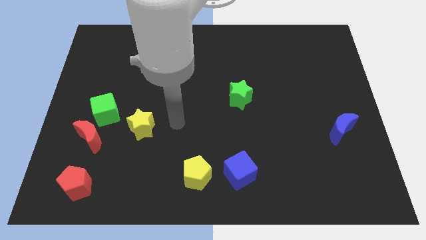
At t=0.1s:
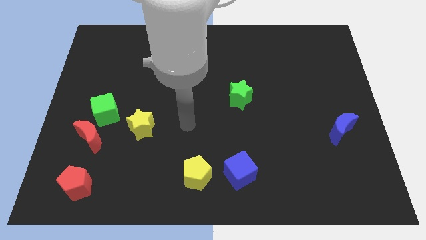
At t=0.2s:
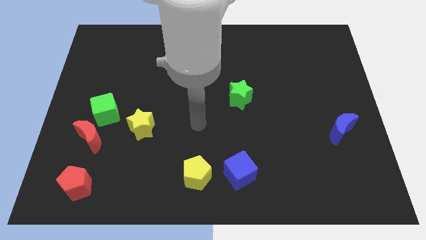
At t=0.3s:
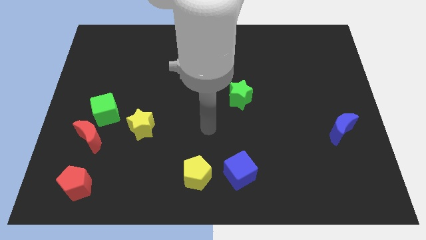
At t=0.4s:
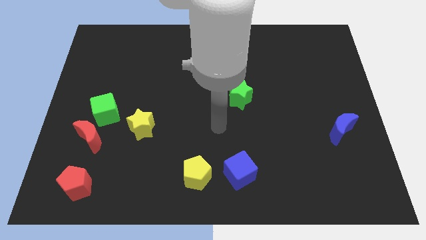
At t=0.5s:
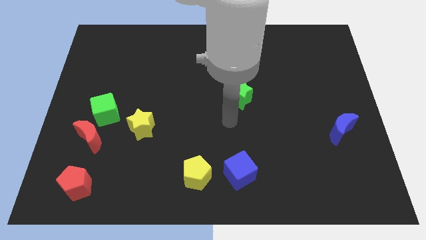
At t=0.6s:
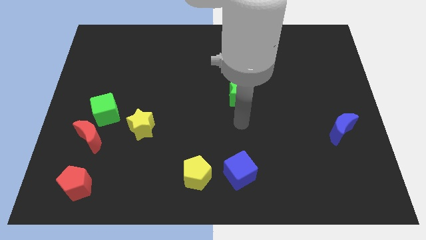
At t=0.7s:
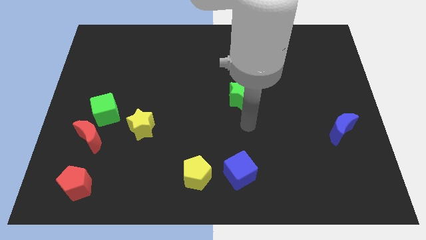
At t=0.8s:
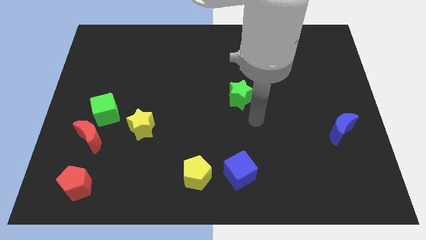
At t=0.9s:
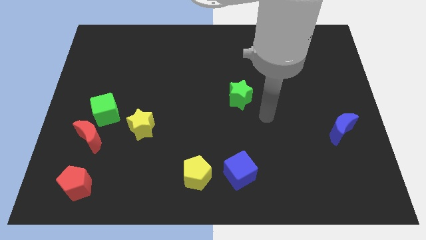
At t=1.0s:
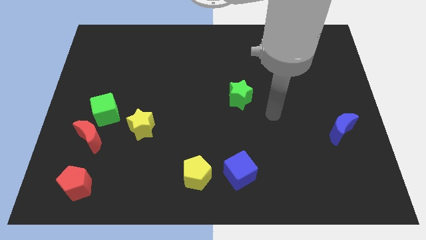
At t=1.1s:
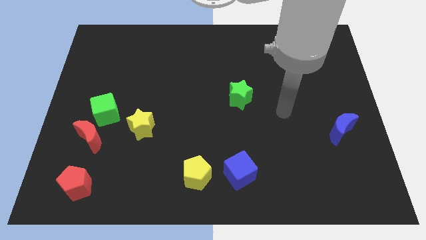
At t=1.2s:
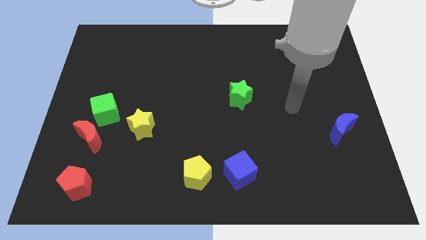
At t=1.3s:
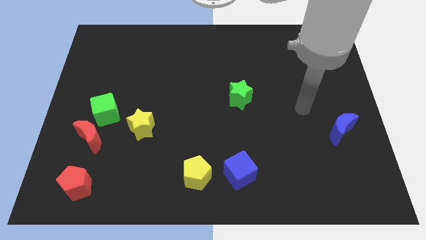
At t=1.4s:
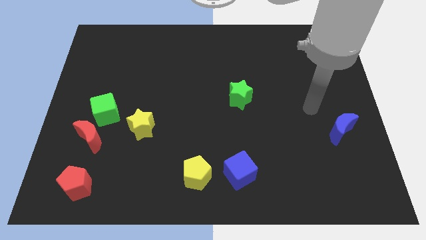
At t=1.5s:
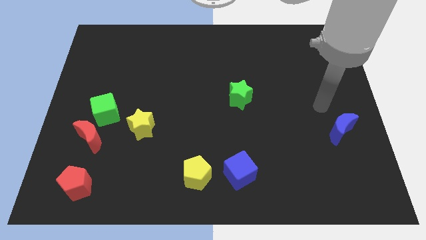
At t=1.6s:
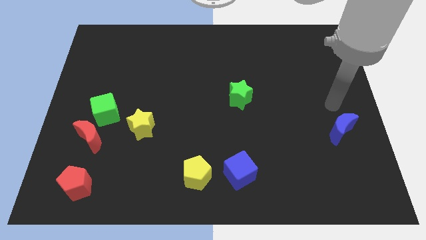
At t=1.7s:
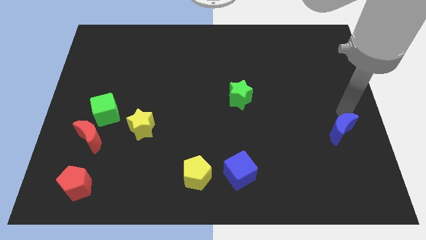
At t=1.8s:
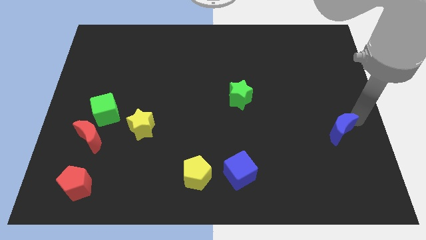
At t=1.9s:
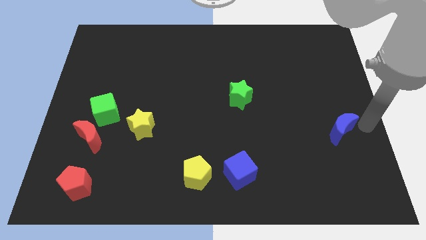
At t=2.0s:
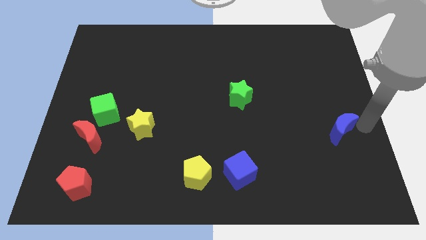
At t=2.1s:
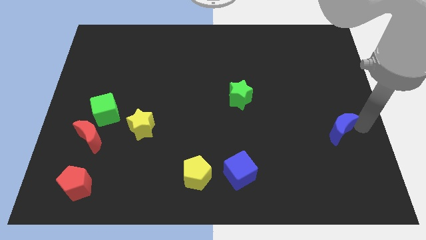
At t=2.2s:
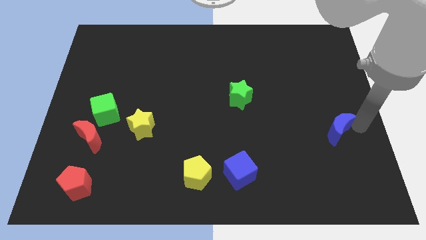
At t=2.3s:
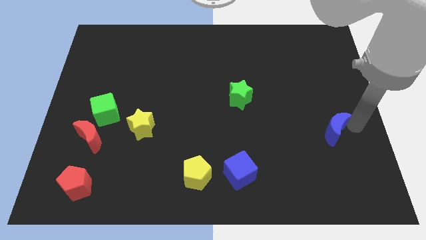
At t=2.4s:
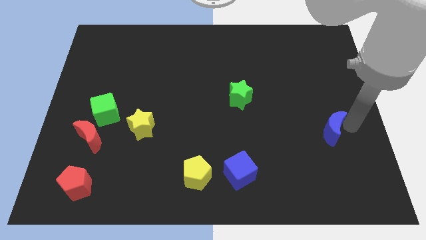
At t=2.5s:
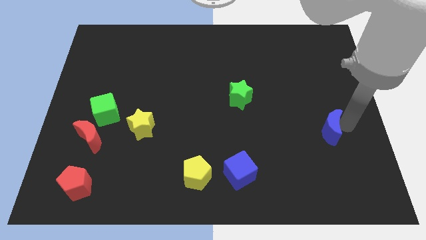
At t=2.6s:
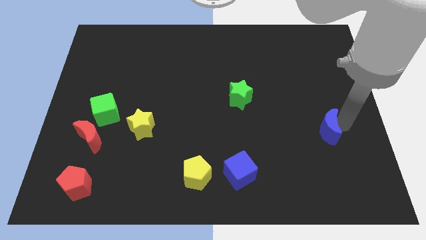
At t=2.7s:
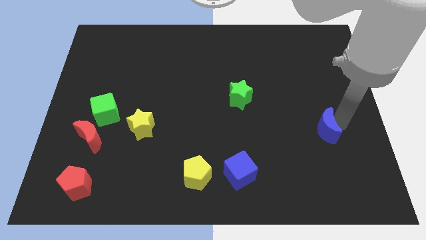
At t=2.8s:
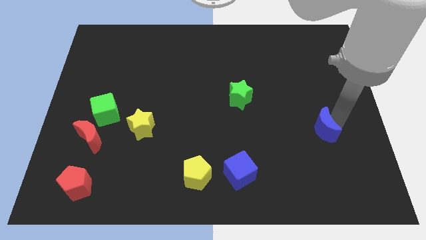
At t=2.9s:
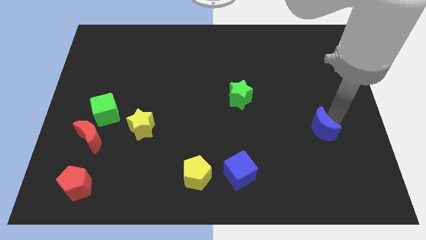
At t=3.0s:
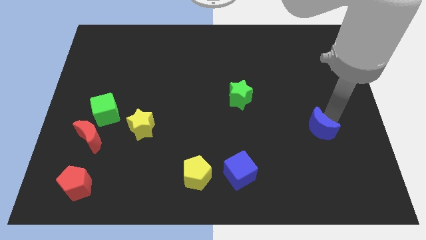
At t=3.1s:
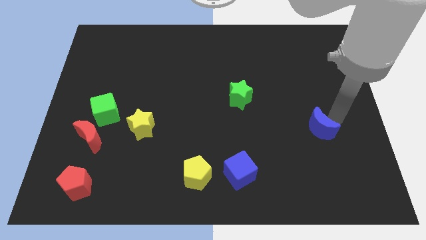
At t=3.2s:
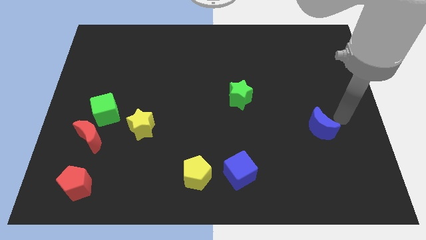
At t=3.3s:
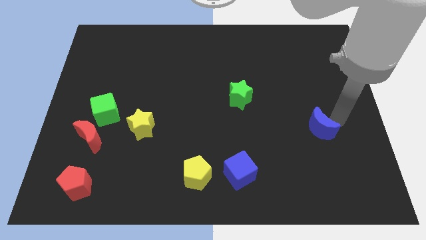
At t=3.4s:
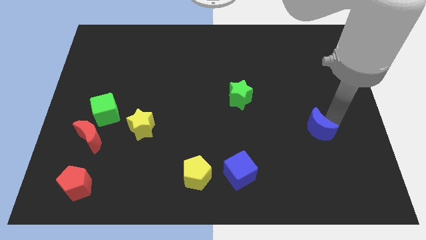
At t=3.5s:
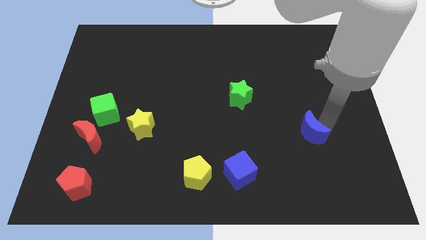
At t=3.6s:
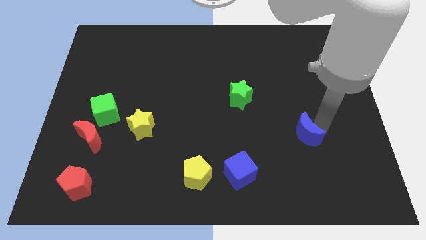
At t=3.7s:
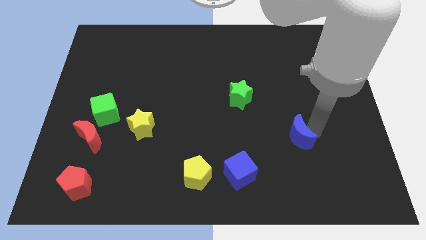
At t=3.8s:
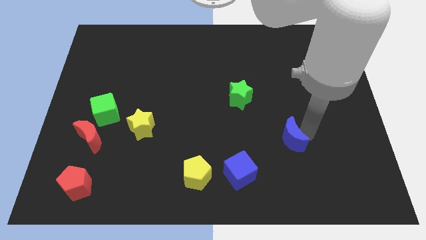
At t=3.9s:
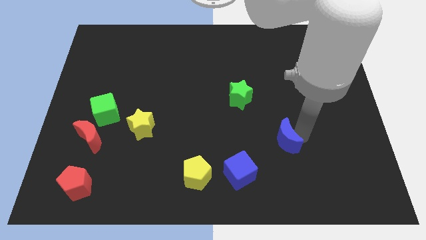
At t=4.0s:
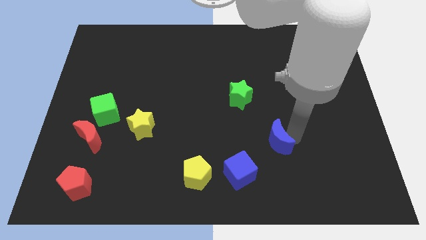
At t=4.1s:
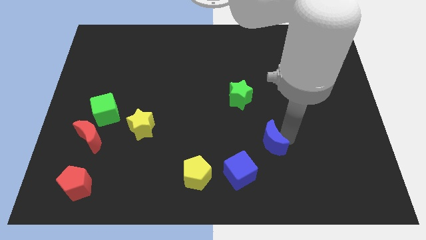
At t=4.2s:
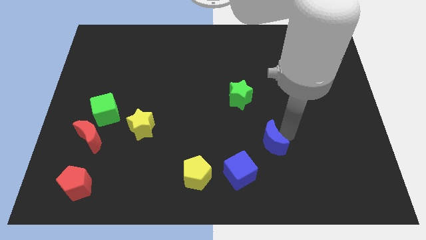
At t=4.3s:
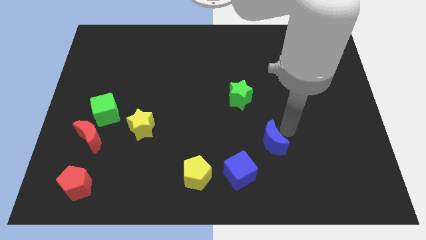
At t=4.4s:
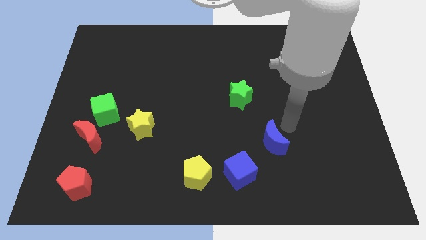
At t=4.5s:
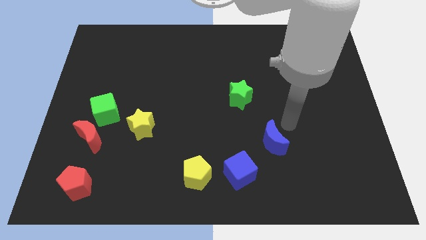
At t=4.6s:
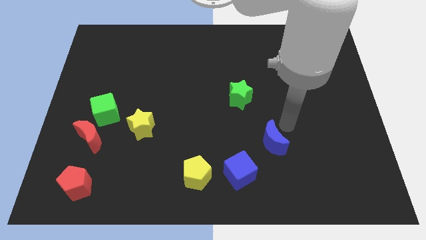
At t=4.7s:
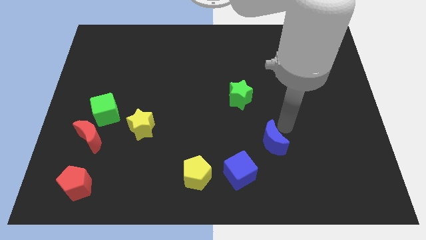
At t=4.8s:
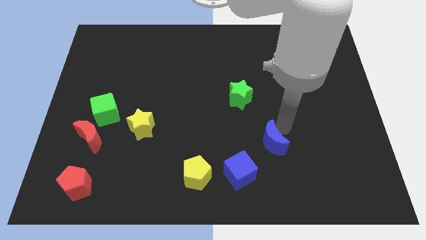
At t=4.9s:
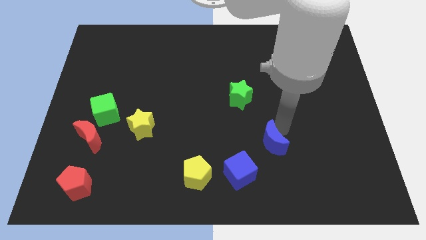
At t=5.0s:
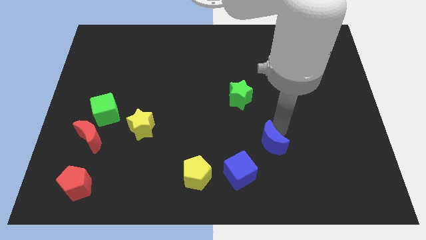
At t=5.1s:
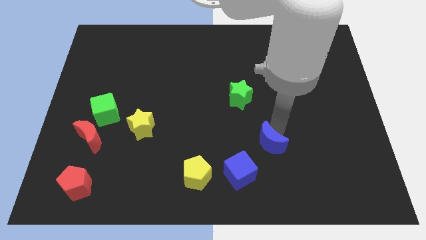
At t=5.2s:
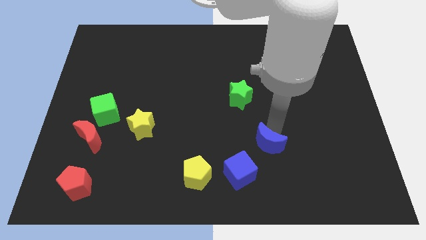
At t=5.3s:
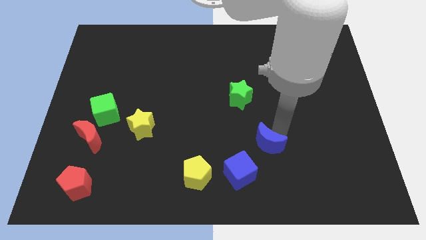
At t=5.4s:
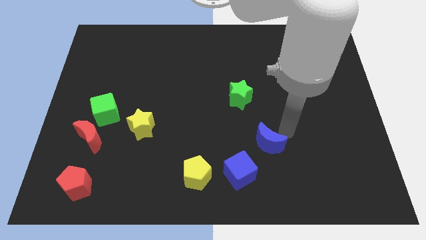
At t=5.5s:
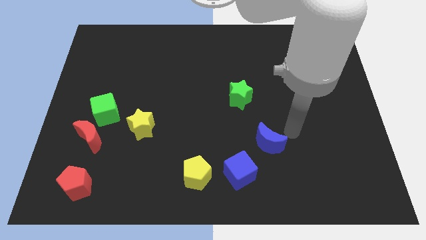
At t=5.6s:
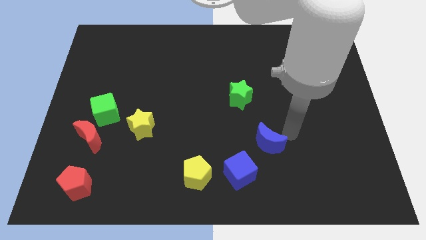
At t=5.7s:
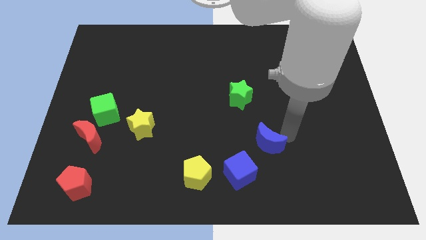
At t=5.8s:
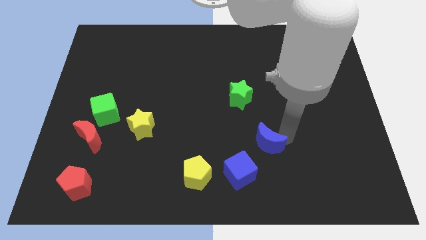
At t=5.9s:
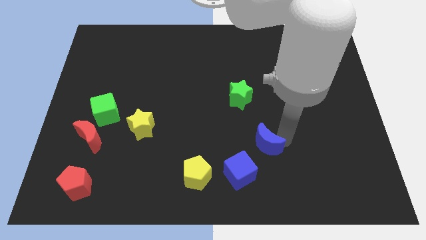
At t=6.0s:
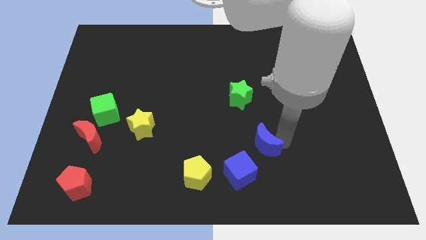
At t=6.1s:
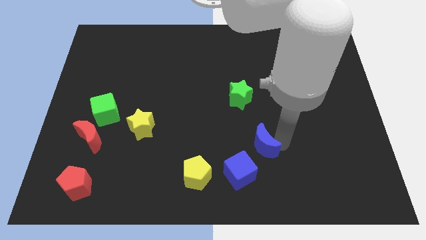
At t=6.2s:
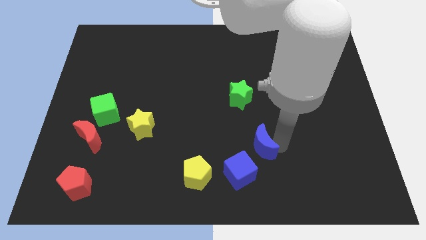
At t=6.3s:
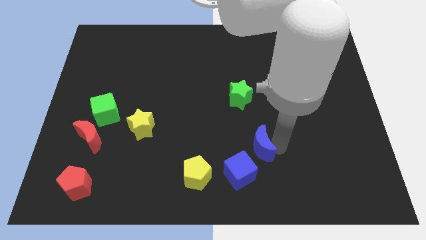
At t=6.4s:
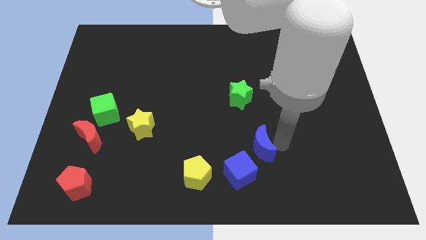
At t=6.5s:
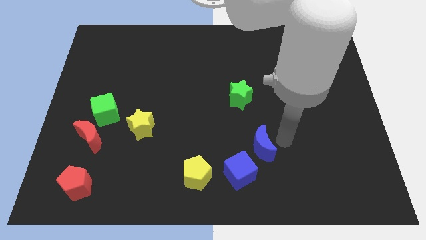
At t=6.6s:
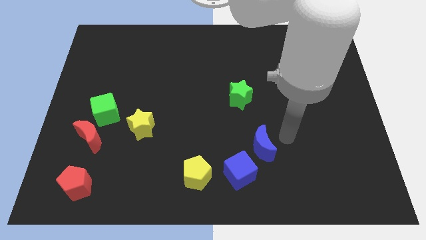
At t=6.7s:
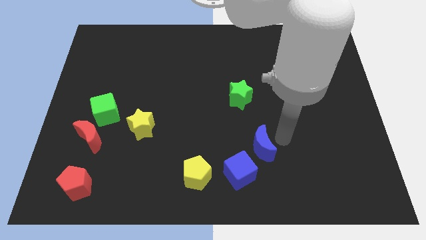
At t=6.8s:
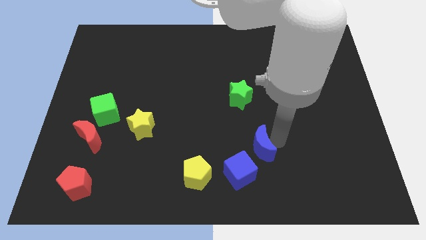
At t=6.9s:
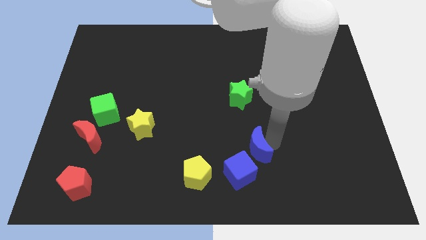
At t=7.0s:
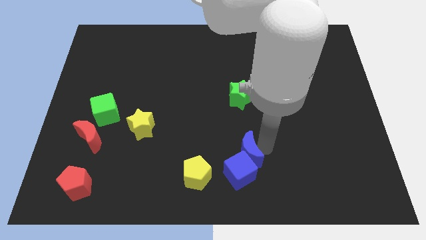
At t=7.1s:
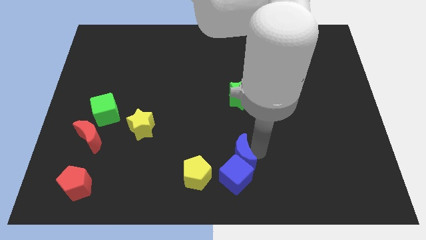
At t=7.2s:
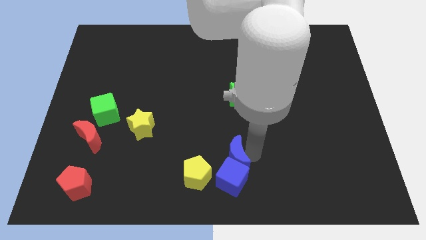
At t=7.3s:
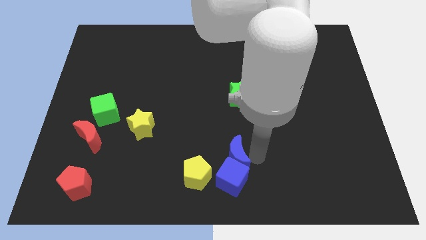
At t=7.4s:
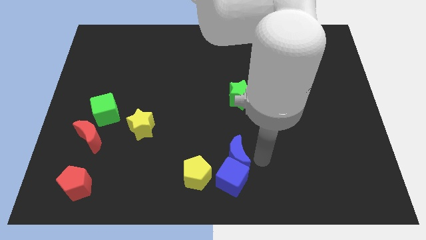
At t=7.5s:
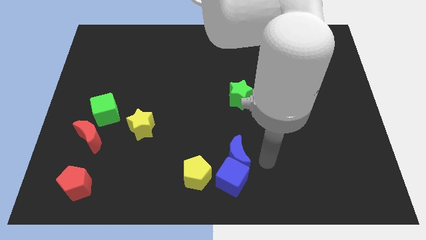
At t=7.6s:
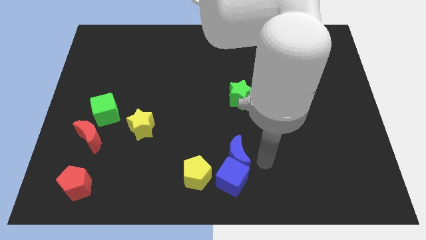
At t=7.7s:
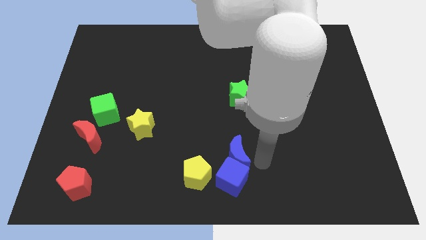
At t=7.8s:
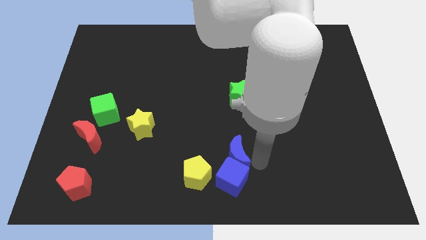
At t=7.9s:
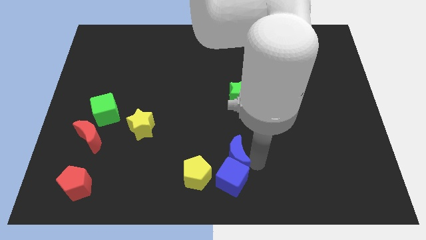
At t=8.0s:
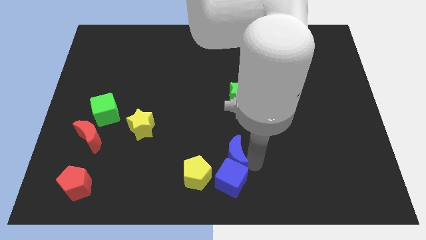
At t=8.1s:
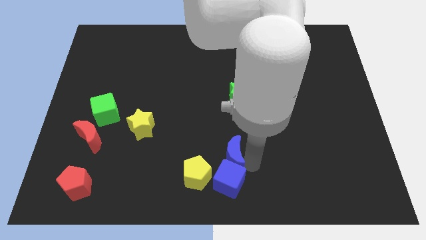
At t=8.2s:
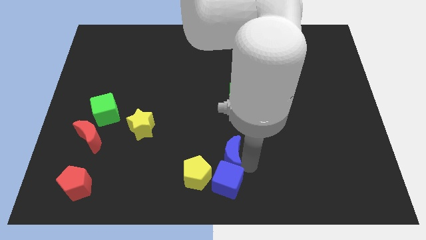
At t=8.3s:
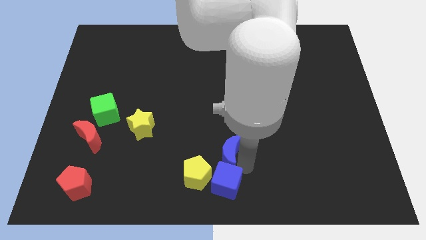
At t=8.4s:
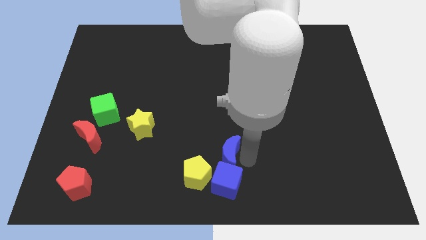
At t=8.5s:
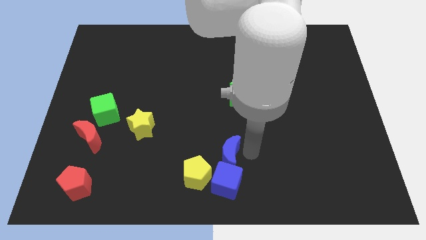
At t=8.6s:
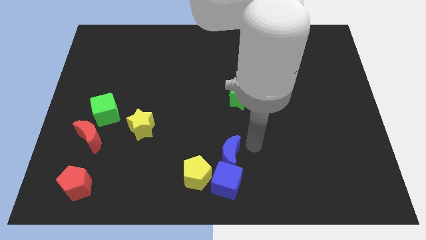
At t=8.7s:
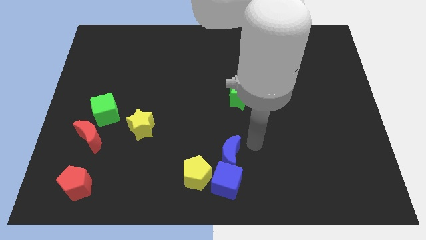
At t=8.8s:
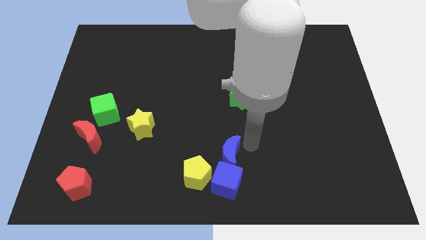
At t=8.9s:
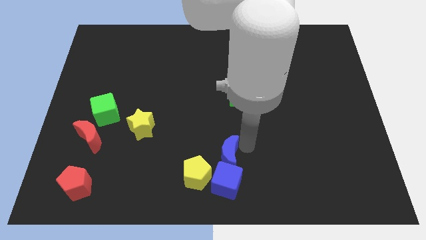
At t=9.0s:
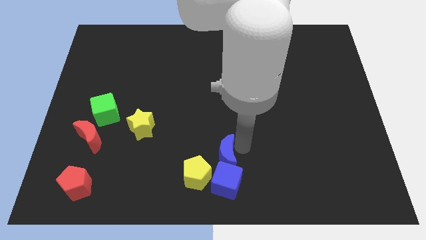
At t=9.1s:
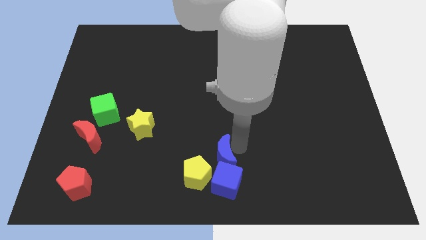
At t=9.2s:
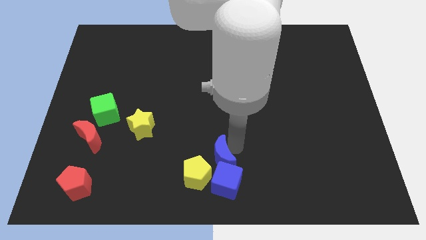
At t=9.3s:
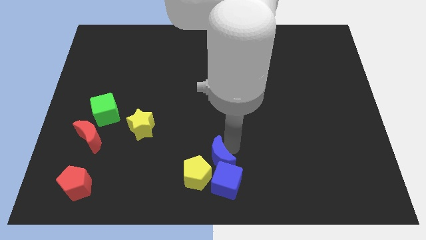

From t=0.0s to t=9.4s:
move the blue moon to the yellow pentagon
